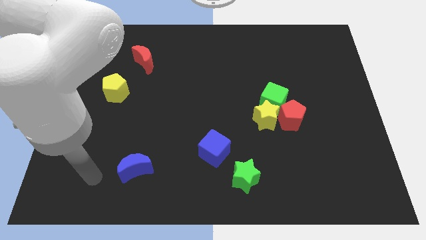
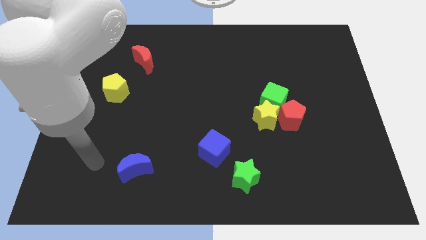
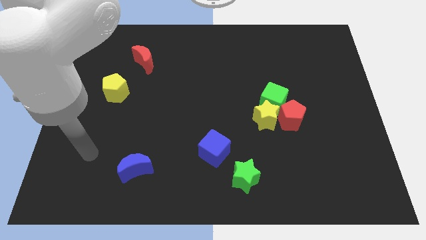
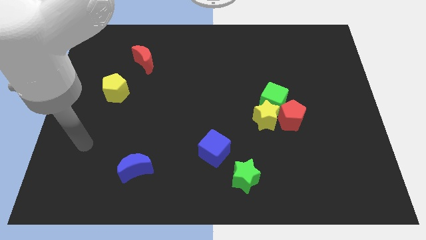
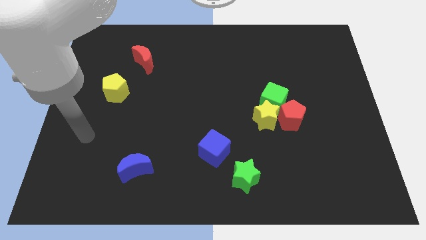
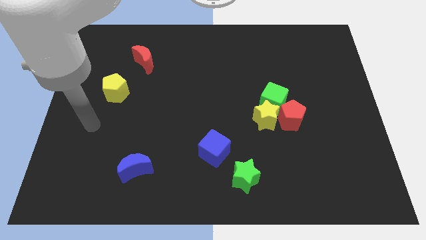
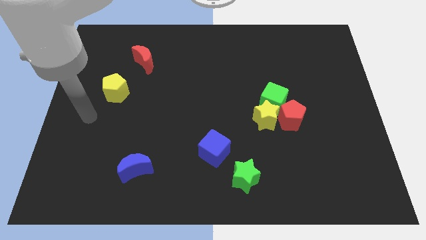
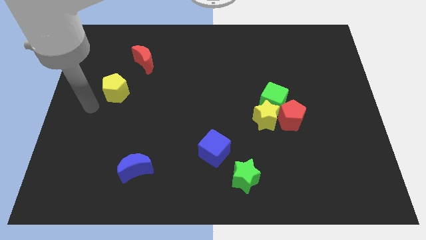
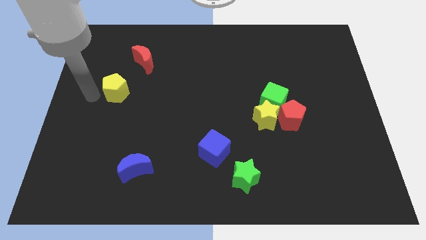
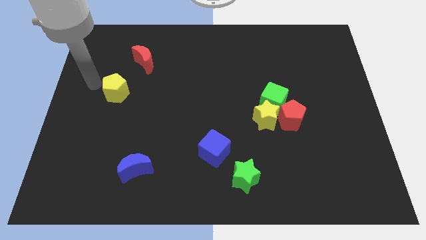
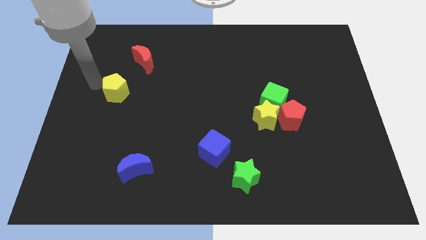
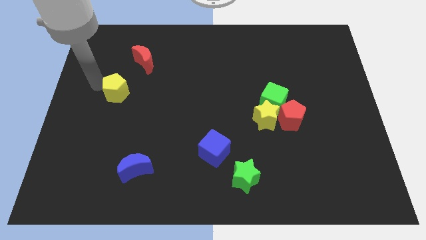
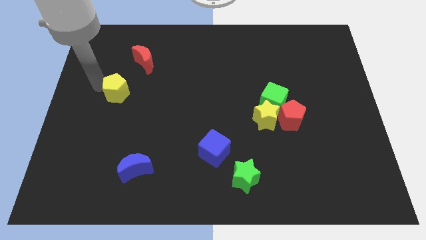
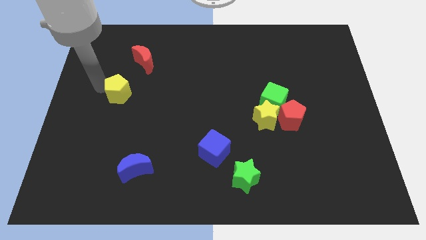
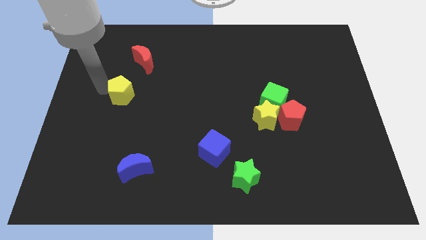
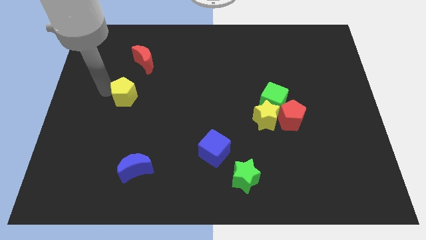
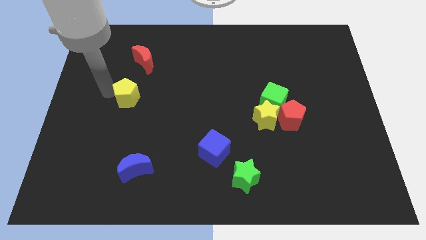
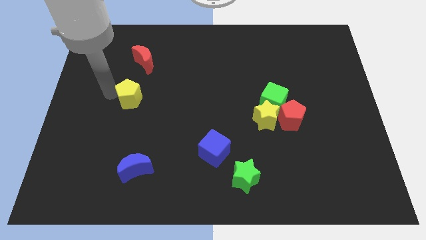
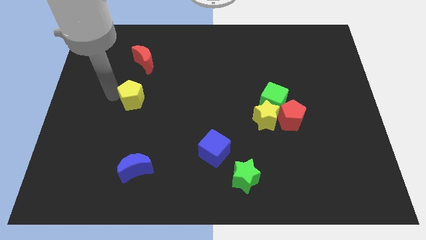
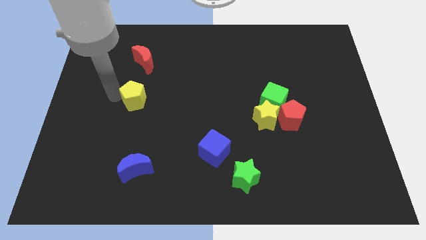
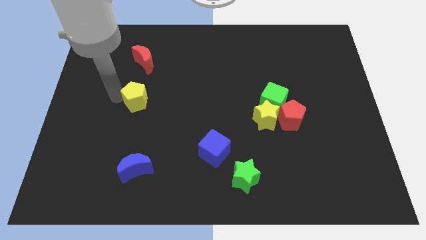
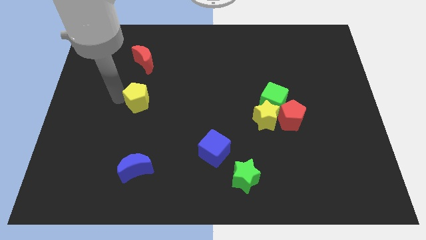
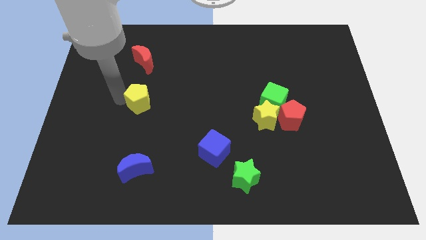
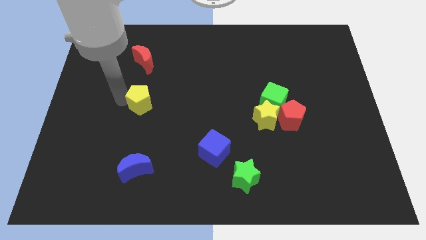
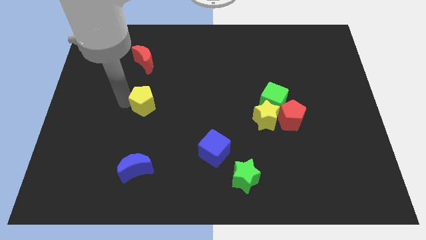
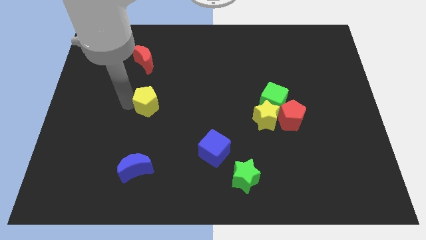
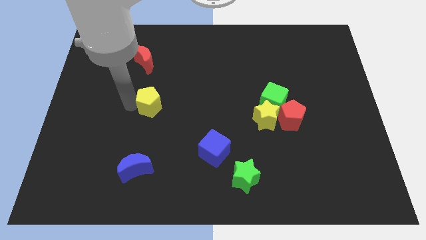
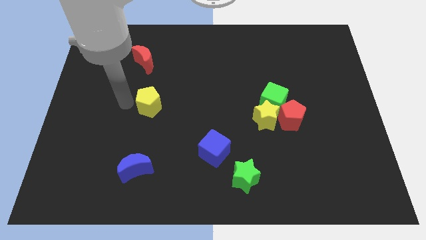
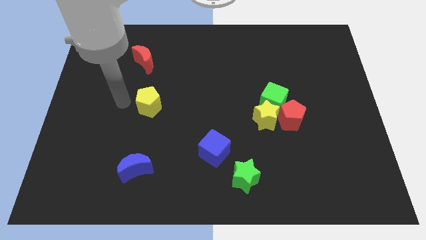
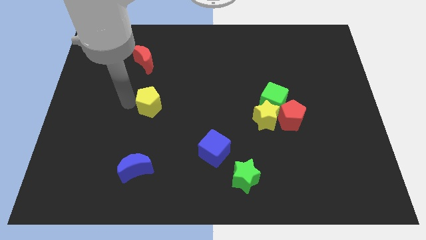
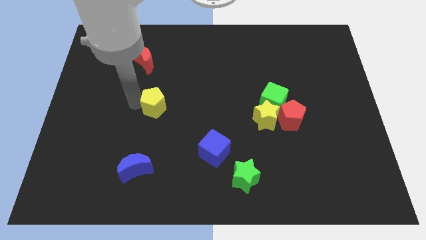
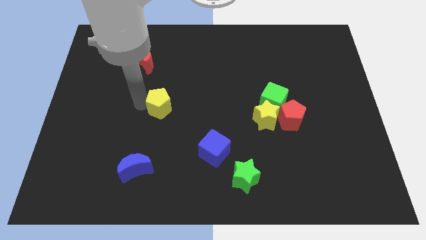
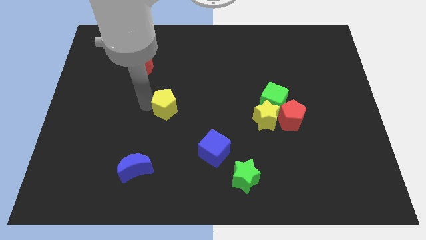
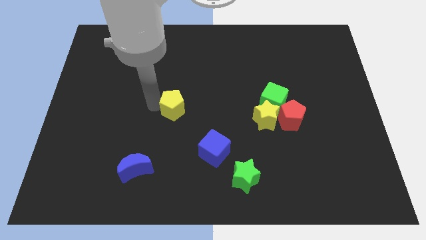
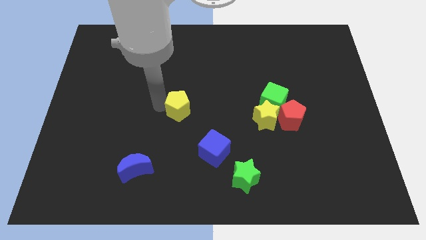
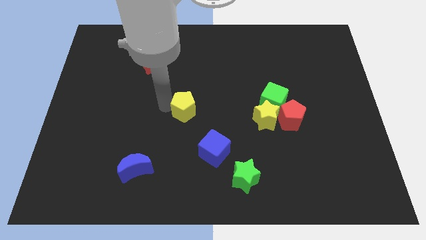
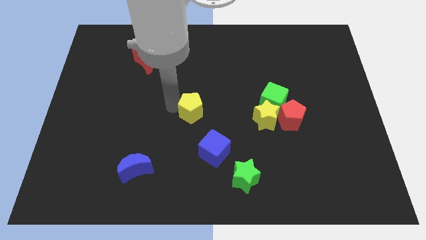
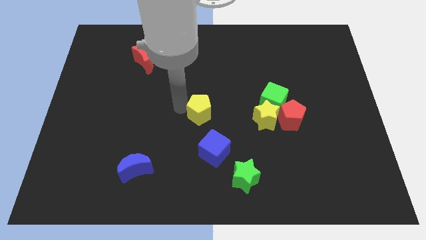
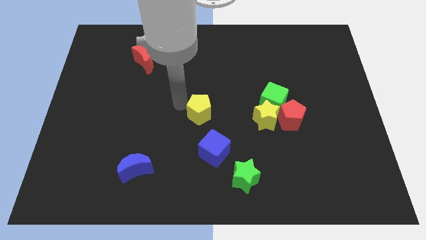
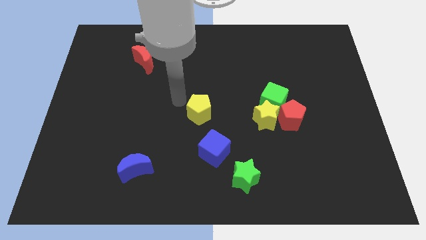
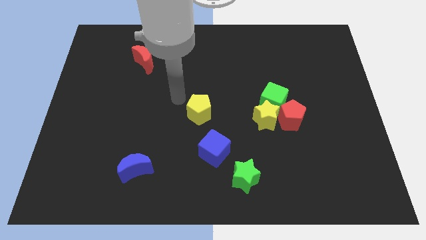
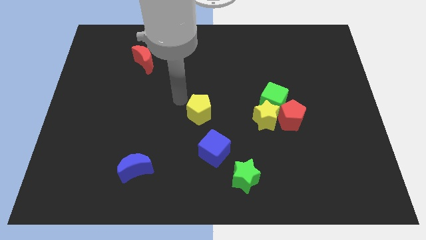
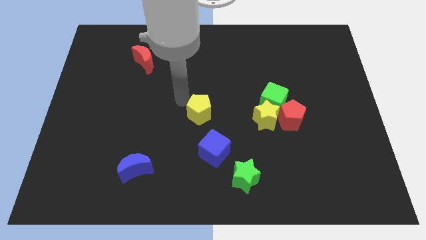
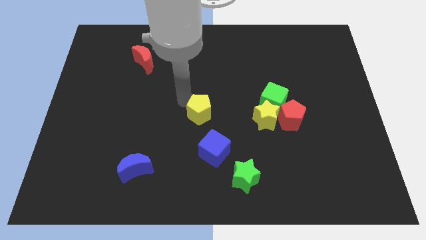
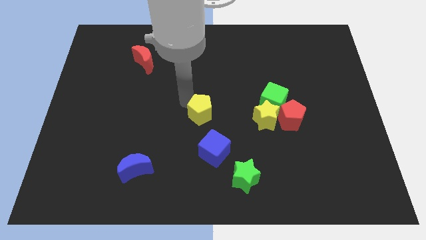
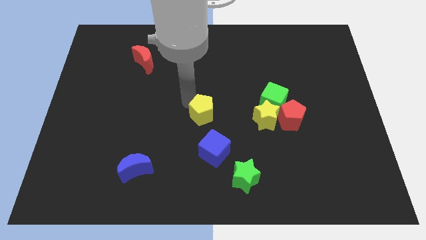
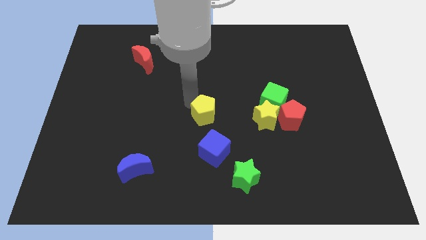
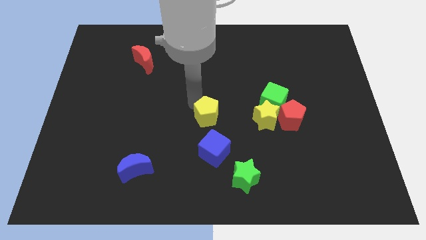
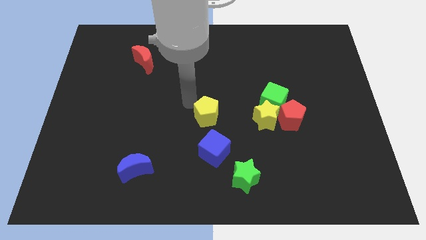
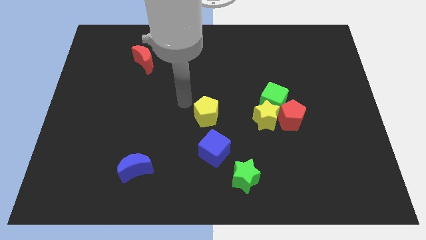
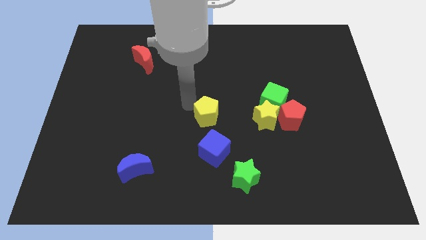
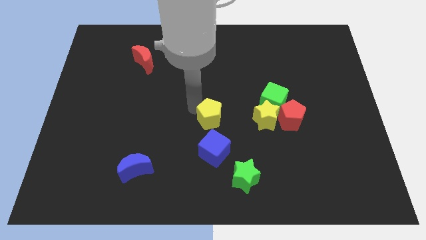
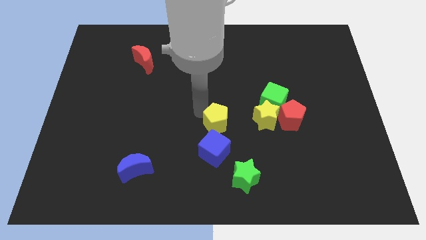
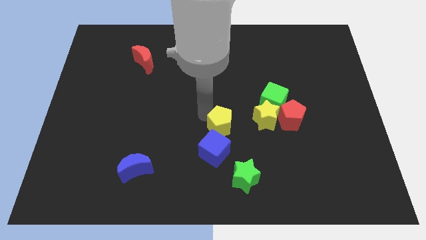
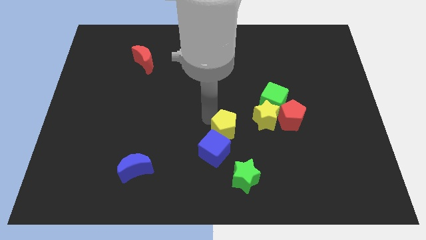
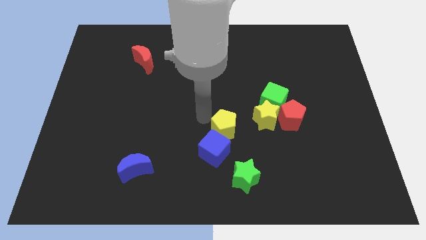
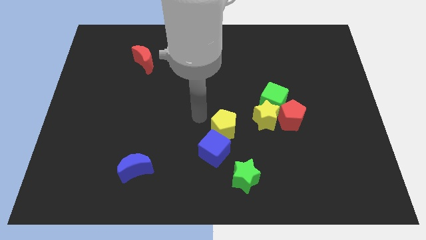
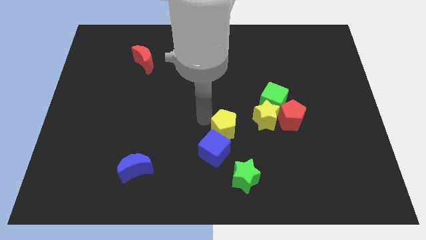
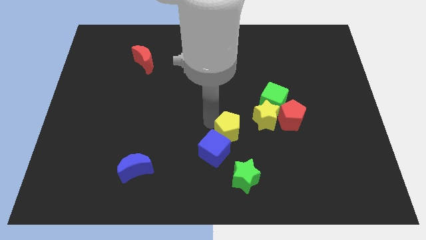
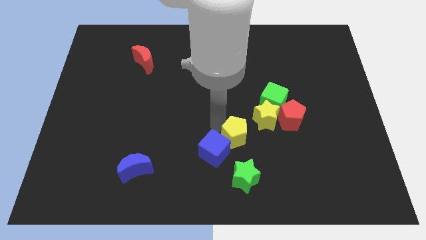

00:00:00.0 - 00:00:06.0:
put the yellow pentagon to the right side of the blue cube

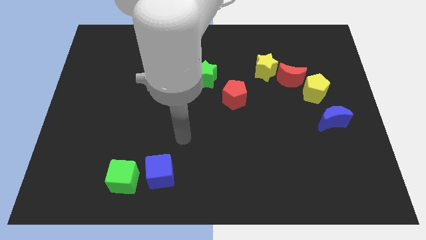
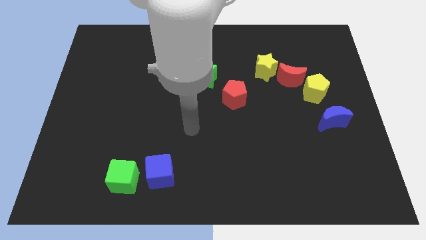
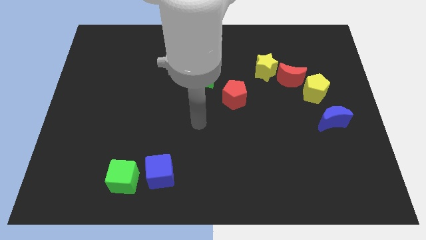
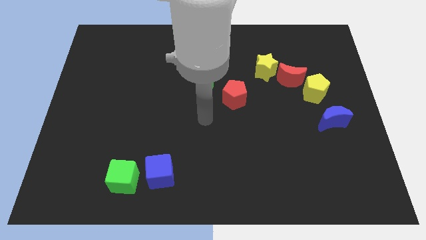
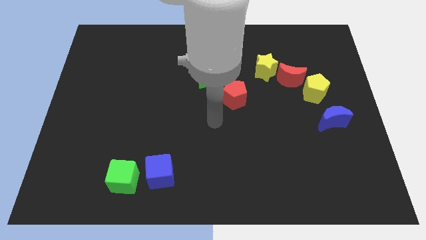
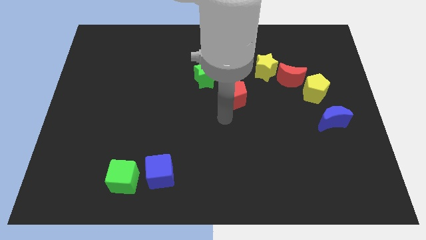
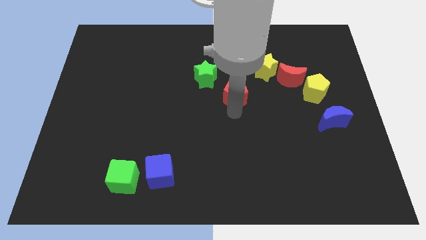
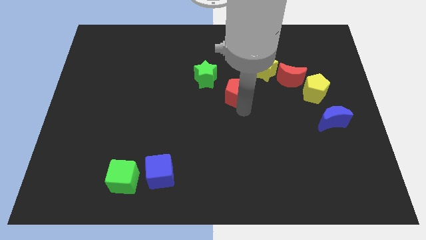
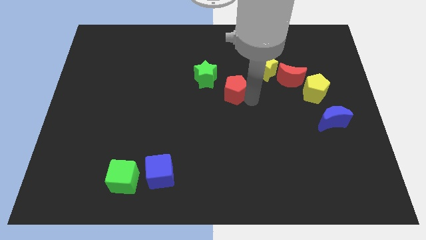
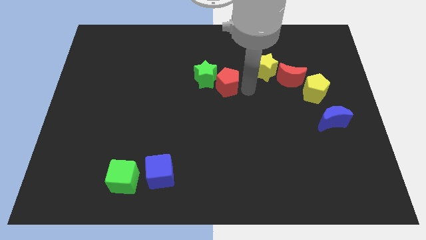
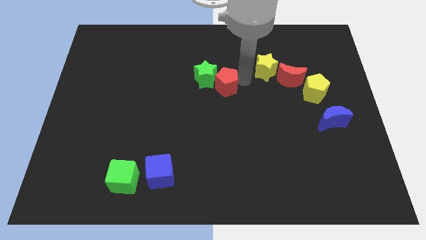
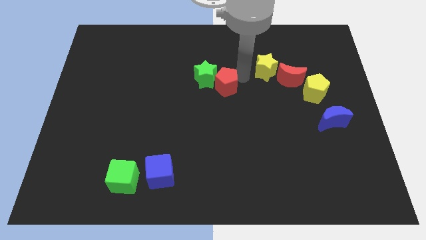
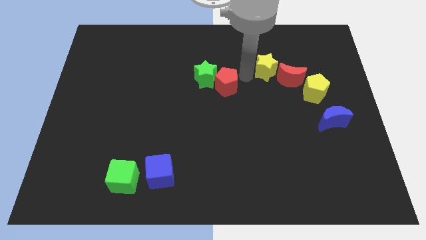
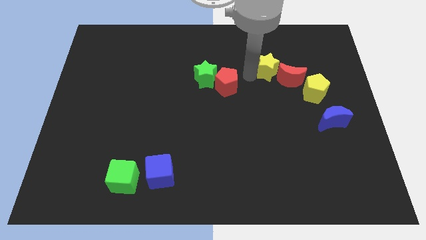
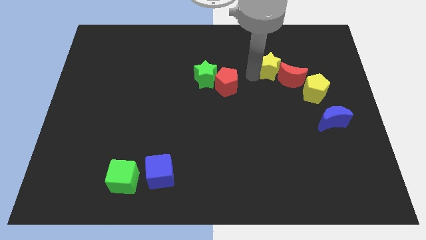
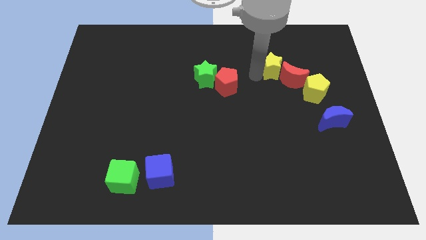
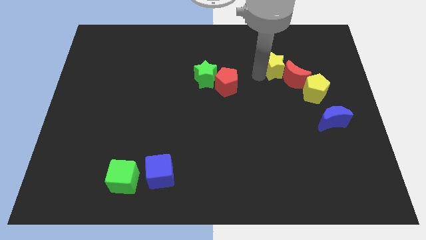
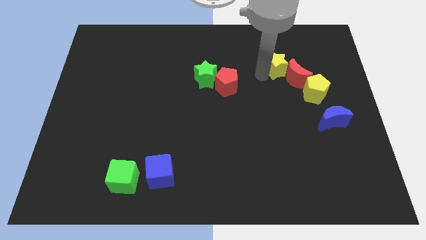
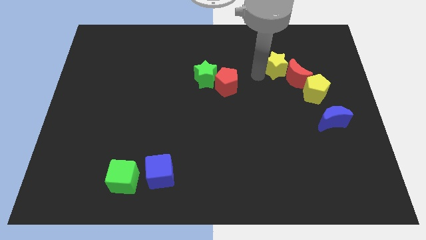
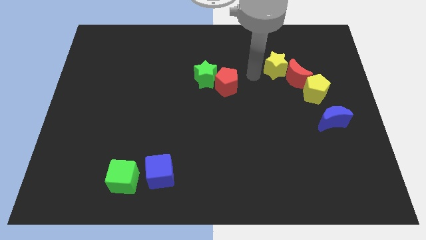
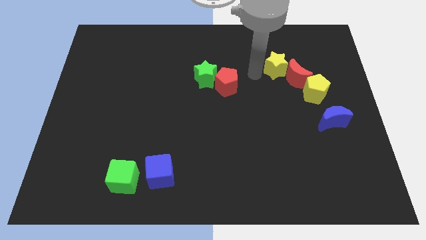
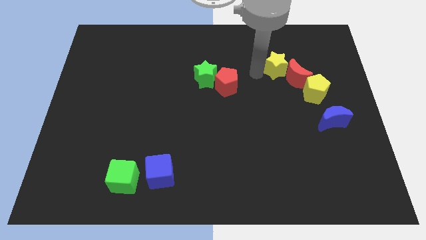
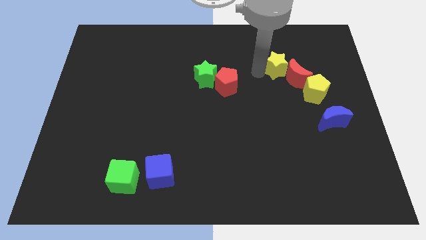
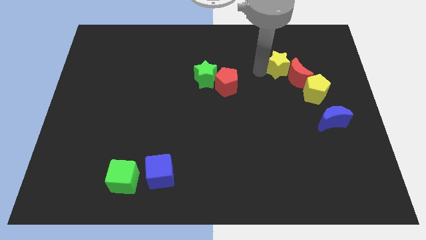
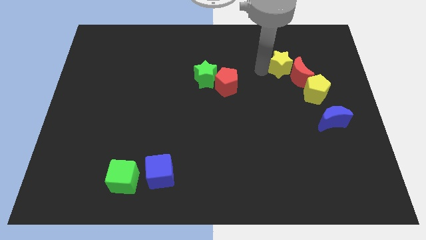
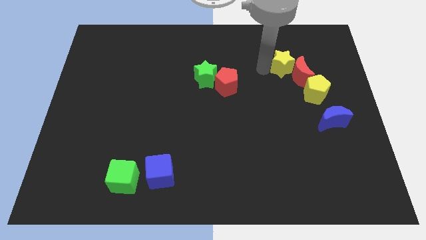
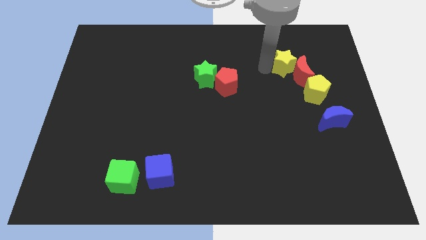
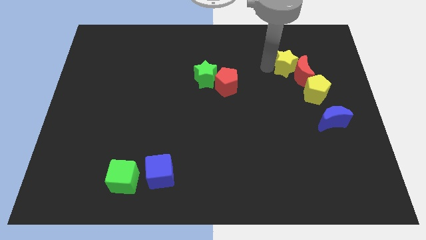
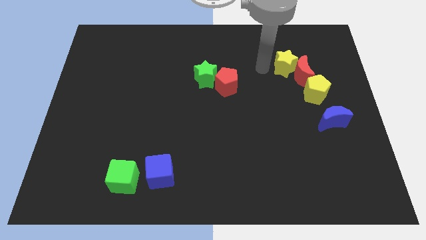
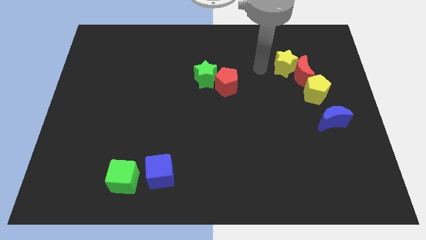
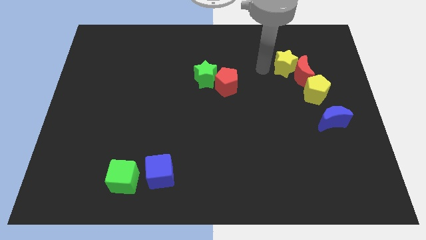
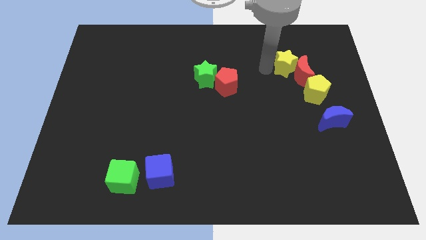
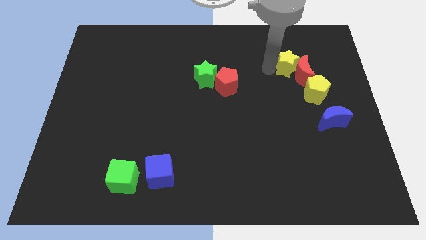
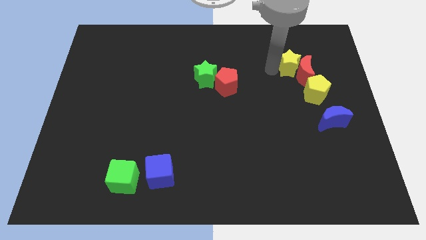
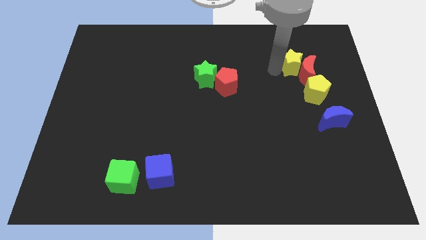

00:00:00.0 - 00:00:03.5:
slide the yellow star above the yellow pentagon
